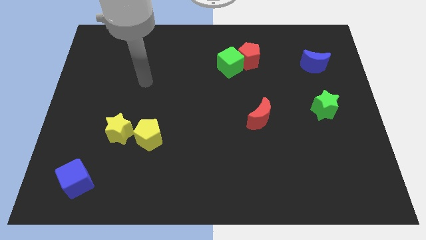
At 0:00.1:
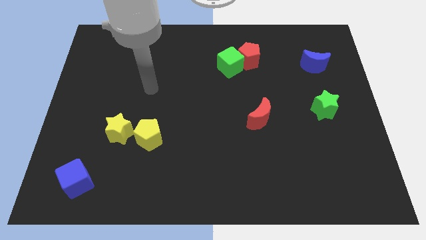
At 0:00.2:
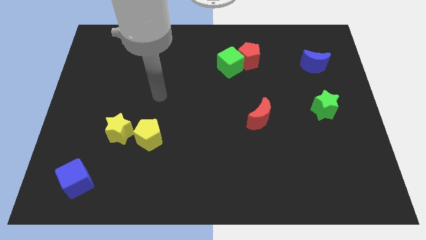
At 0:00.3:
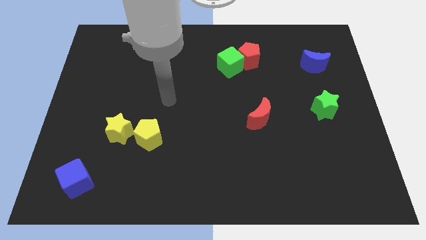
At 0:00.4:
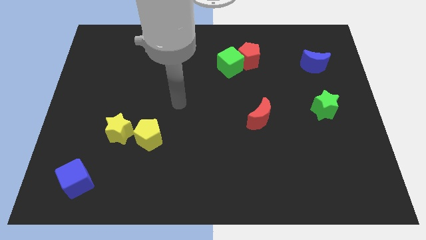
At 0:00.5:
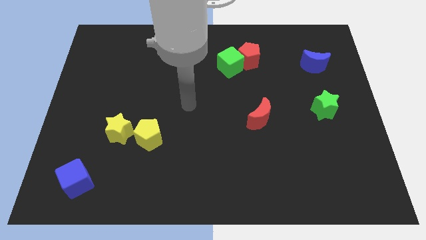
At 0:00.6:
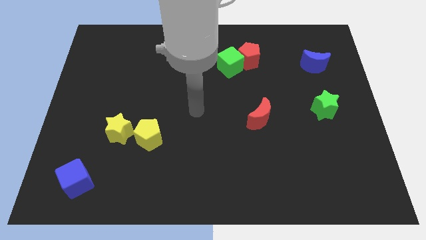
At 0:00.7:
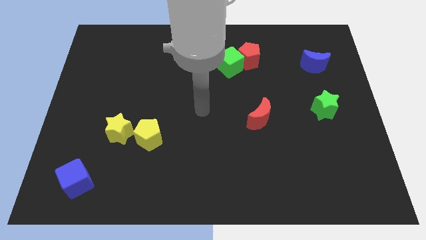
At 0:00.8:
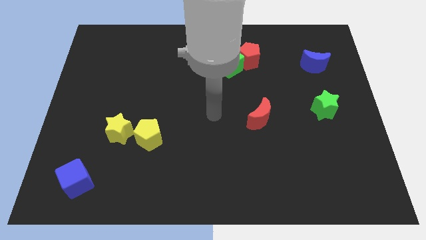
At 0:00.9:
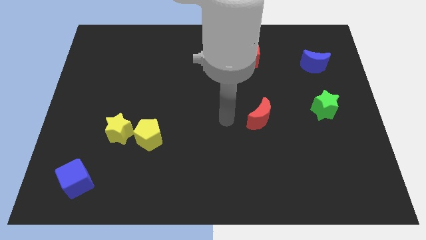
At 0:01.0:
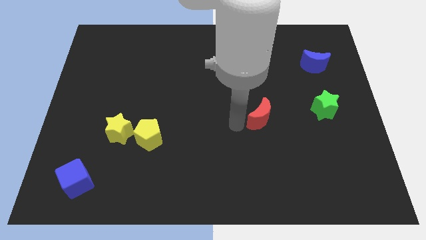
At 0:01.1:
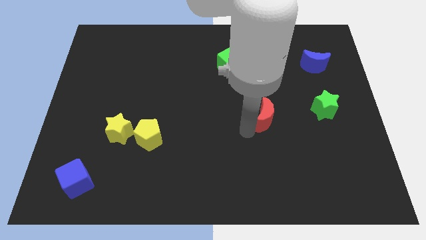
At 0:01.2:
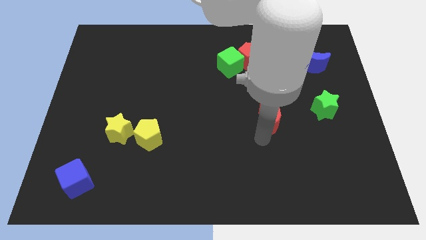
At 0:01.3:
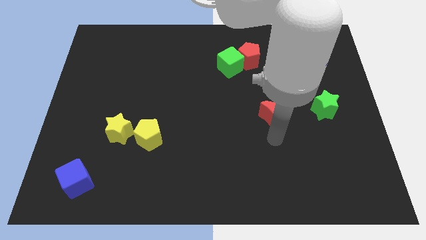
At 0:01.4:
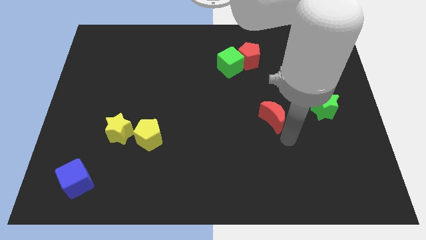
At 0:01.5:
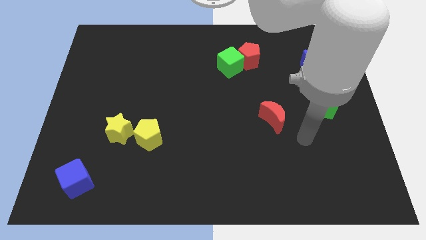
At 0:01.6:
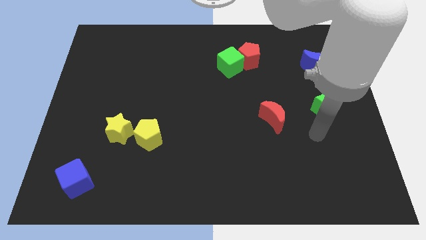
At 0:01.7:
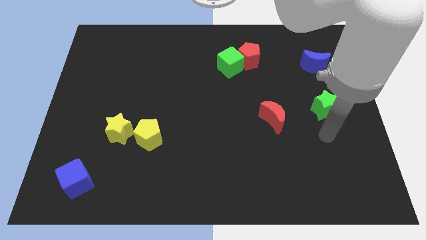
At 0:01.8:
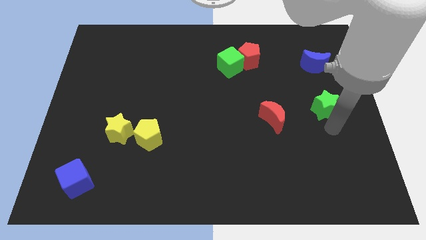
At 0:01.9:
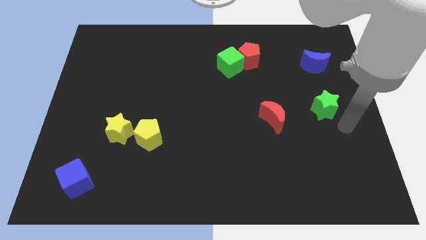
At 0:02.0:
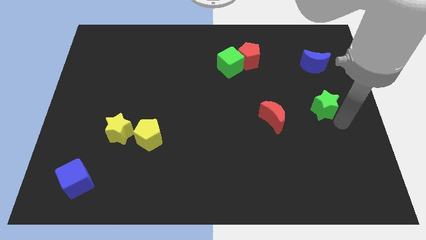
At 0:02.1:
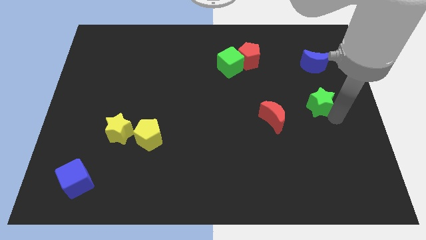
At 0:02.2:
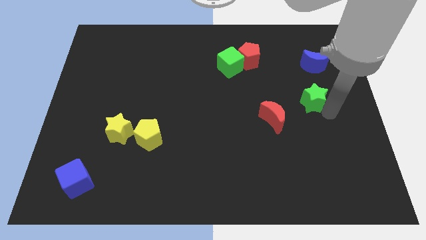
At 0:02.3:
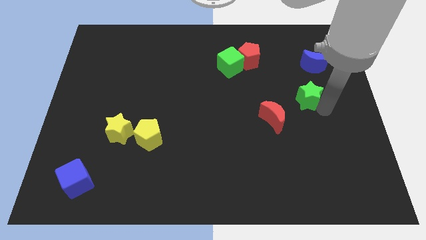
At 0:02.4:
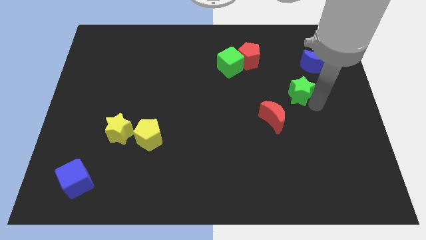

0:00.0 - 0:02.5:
slide the green star slightly diagonally up and to the left

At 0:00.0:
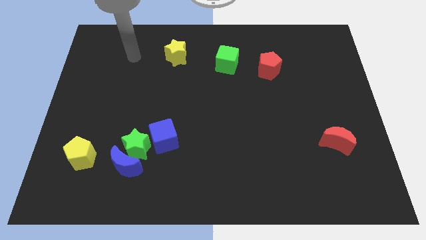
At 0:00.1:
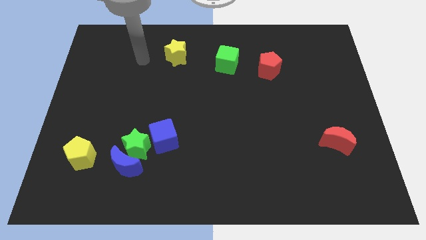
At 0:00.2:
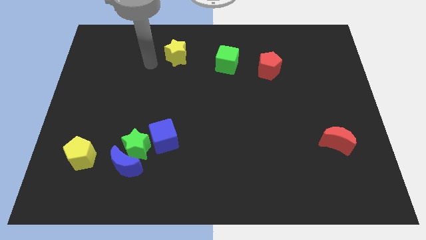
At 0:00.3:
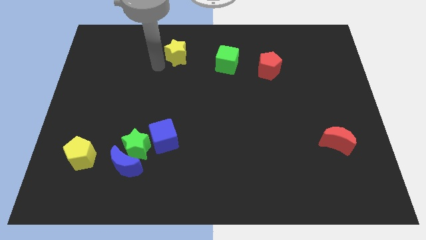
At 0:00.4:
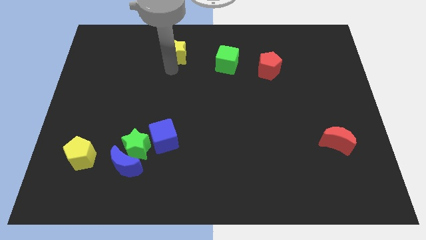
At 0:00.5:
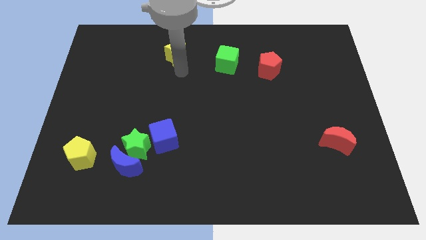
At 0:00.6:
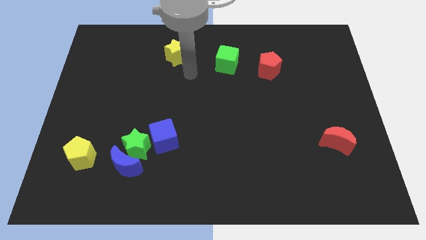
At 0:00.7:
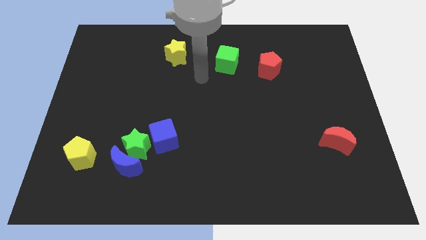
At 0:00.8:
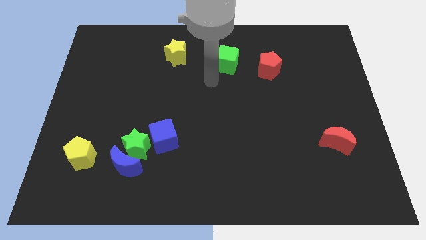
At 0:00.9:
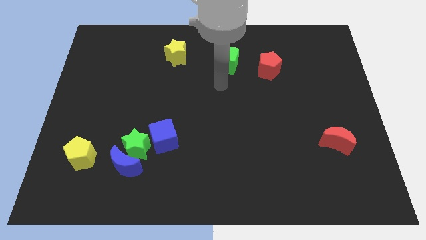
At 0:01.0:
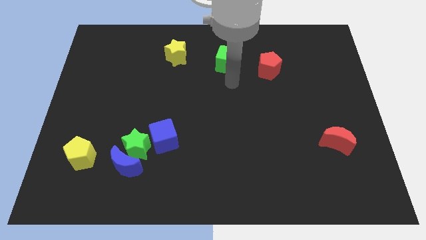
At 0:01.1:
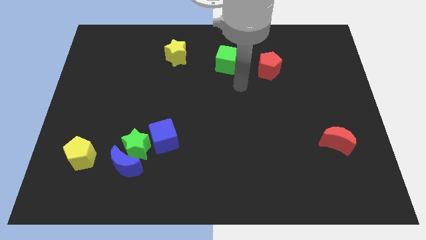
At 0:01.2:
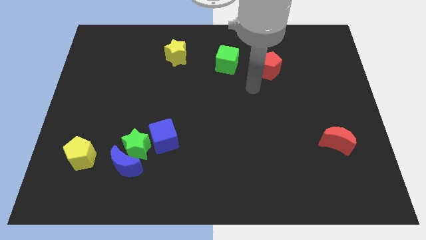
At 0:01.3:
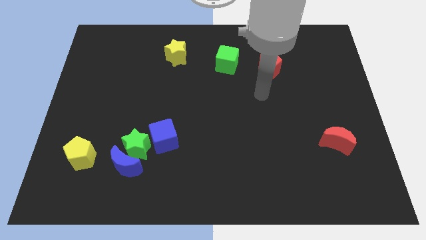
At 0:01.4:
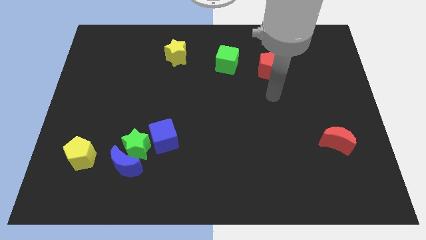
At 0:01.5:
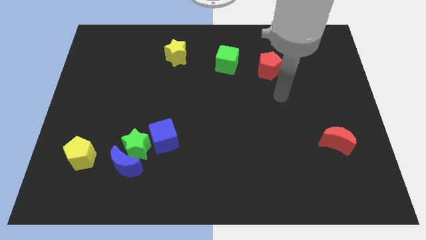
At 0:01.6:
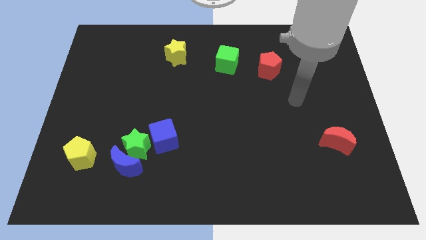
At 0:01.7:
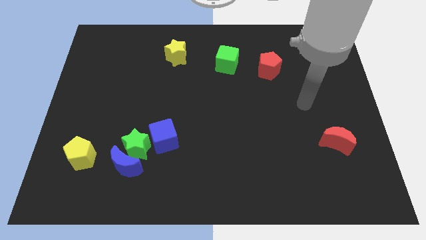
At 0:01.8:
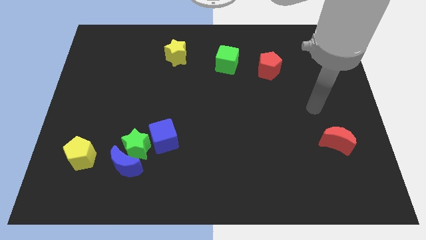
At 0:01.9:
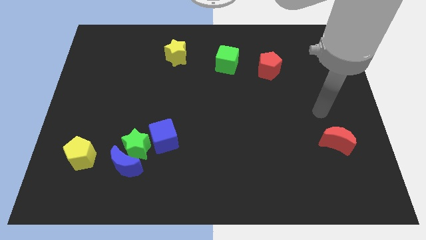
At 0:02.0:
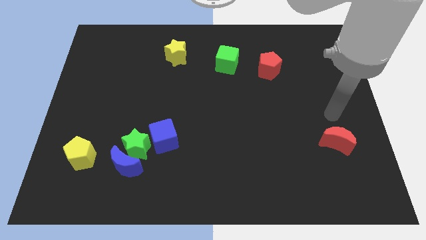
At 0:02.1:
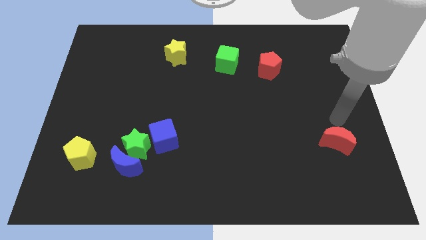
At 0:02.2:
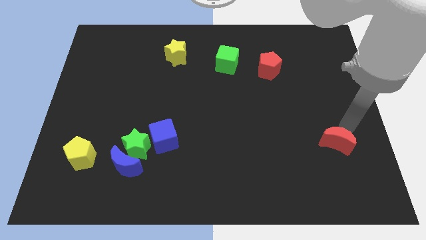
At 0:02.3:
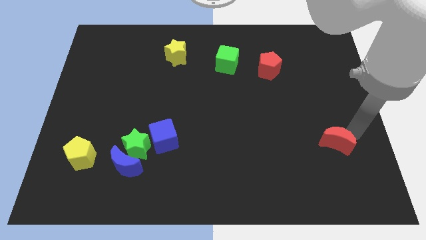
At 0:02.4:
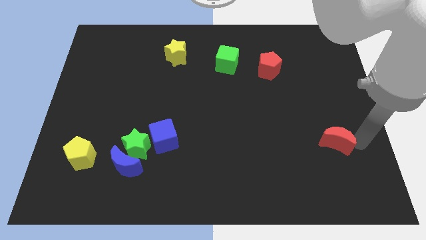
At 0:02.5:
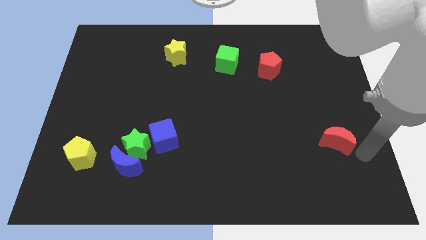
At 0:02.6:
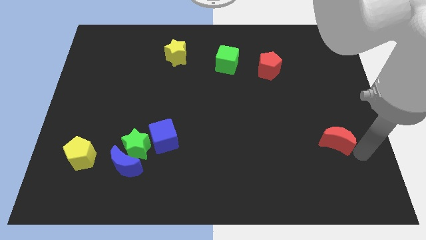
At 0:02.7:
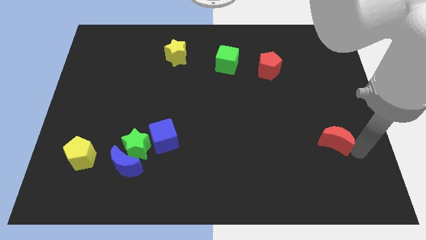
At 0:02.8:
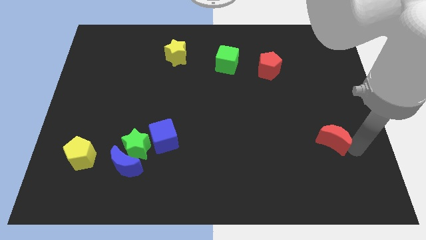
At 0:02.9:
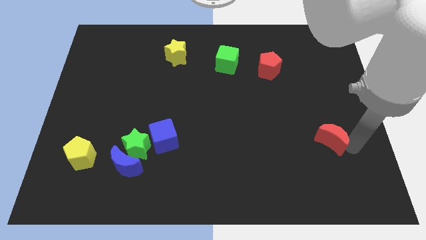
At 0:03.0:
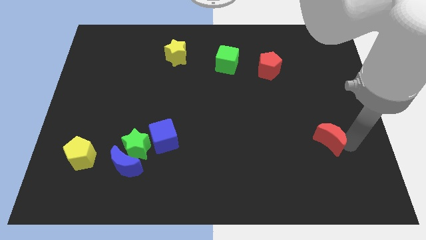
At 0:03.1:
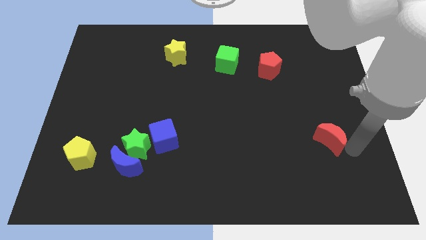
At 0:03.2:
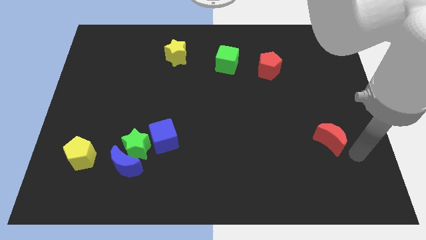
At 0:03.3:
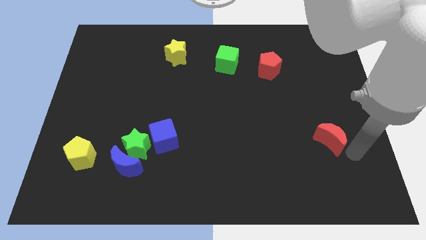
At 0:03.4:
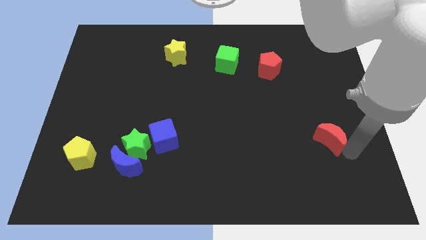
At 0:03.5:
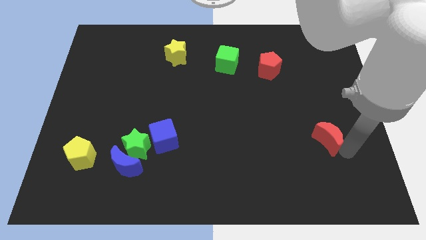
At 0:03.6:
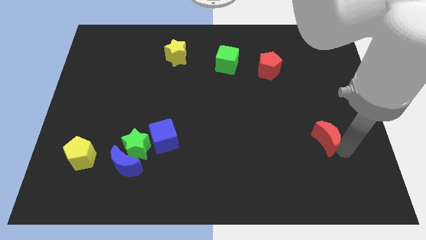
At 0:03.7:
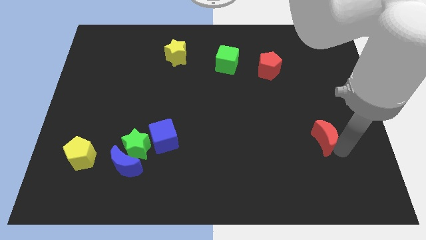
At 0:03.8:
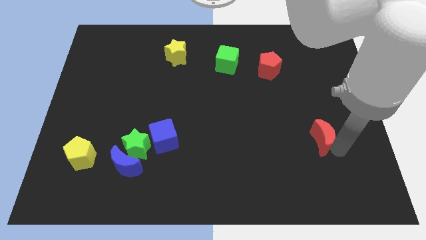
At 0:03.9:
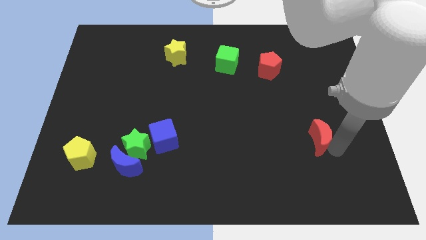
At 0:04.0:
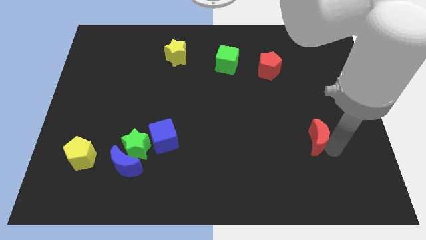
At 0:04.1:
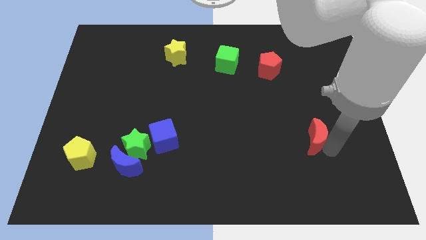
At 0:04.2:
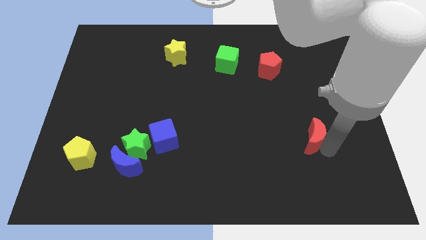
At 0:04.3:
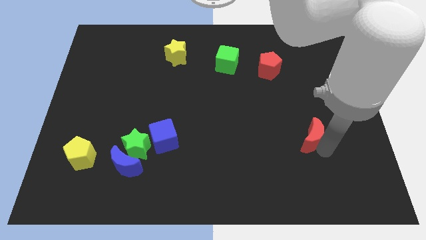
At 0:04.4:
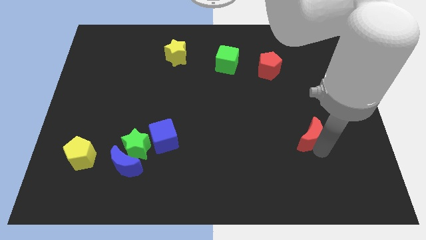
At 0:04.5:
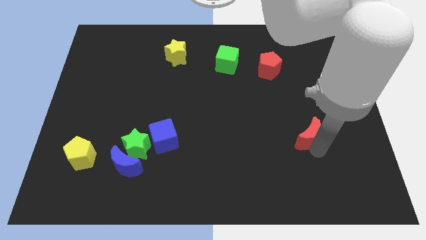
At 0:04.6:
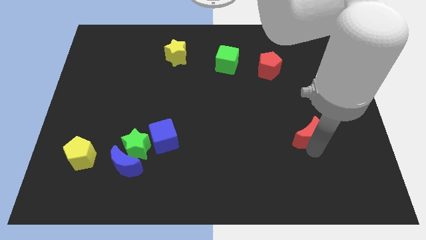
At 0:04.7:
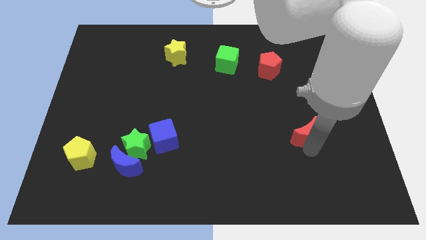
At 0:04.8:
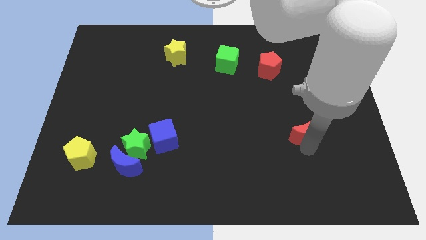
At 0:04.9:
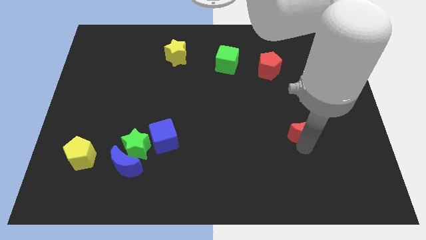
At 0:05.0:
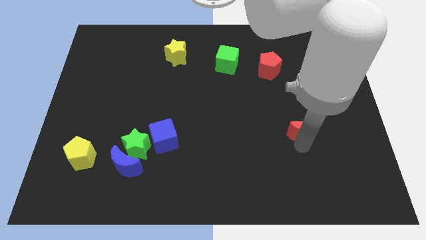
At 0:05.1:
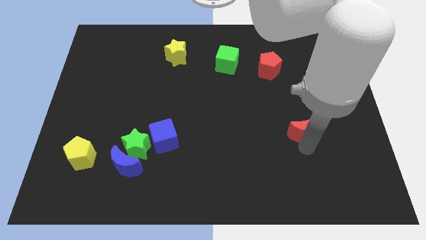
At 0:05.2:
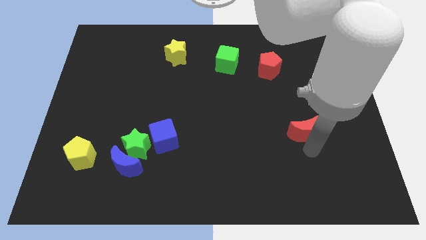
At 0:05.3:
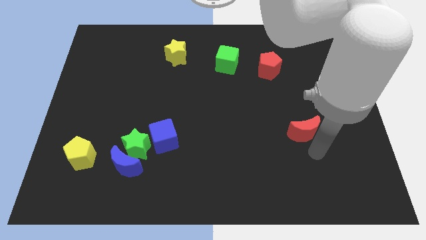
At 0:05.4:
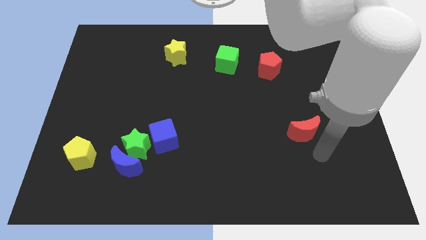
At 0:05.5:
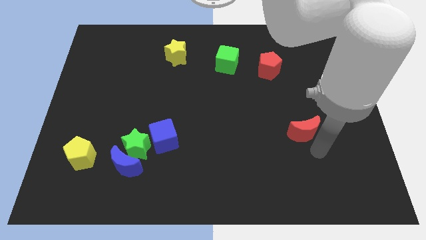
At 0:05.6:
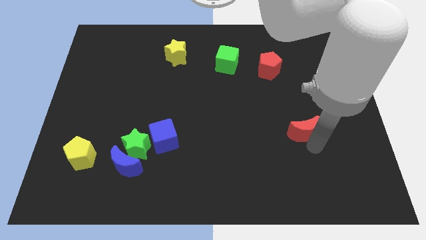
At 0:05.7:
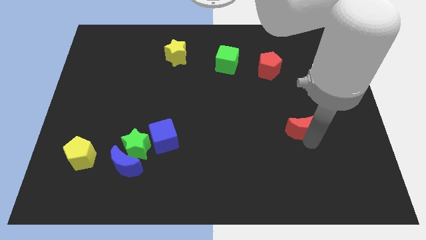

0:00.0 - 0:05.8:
slide the red moon upwards and then left a little bit
